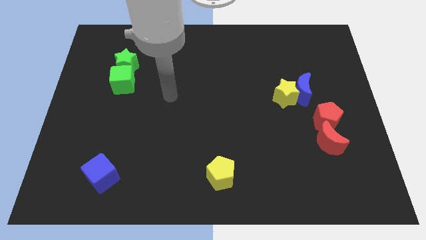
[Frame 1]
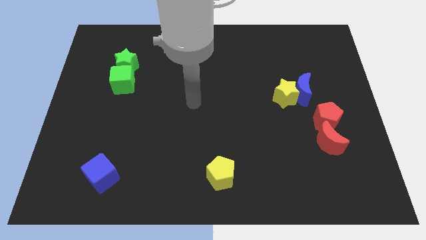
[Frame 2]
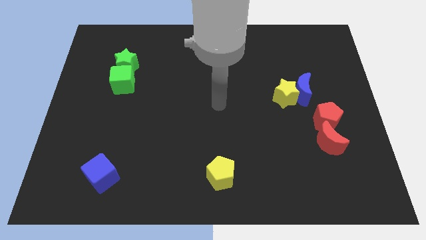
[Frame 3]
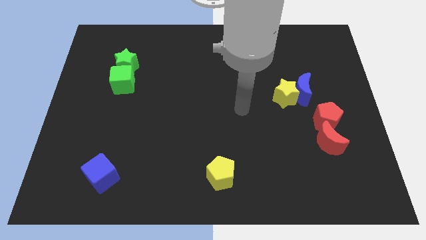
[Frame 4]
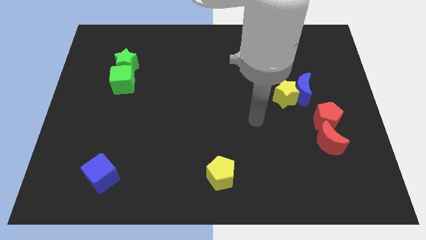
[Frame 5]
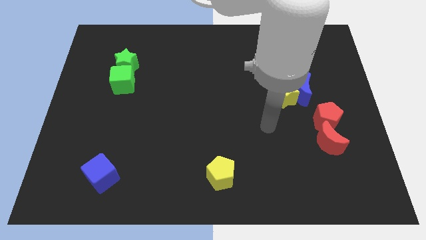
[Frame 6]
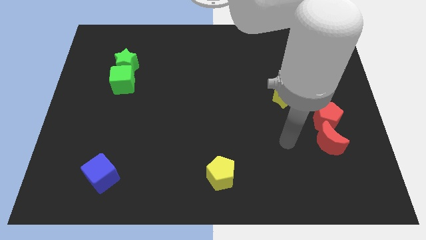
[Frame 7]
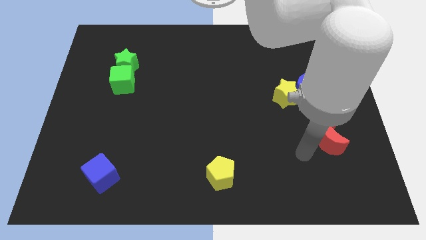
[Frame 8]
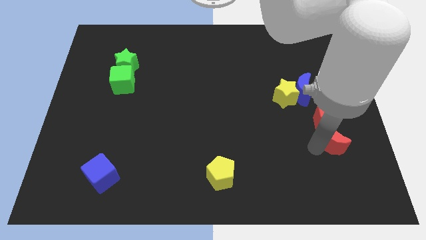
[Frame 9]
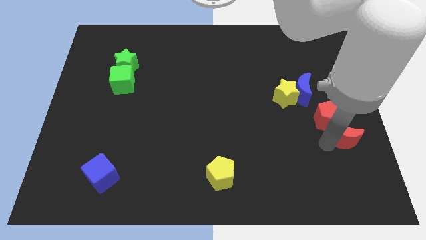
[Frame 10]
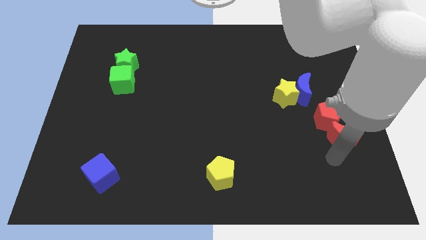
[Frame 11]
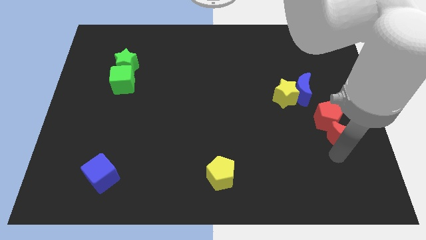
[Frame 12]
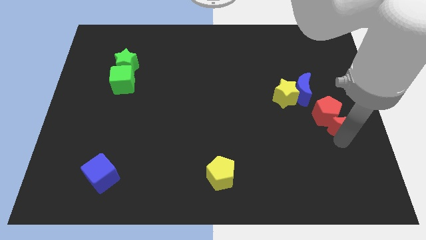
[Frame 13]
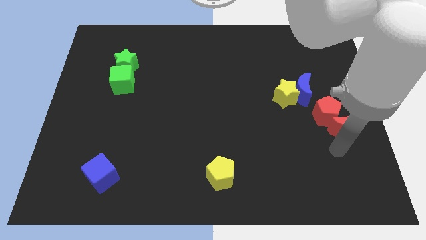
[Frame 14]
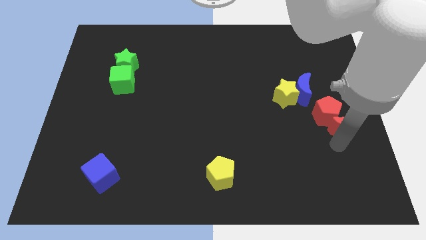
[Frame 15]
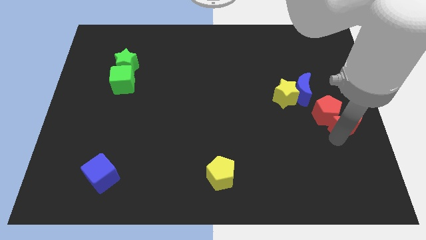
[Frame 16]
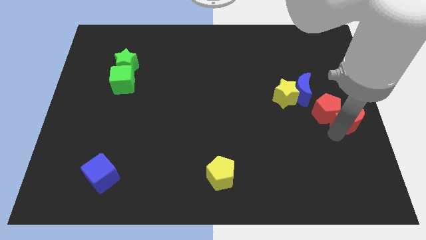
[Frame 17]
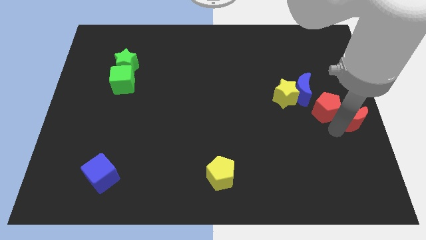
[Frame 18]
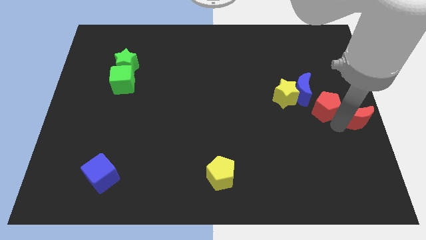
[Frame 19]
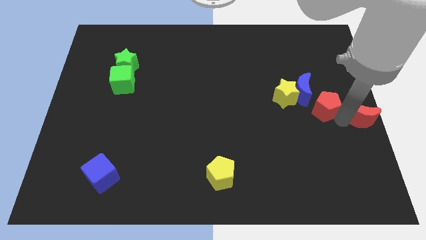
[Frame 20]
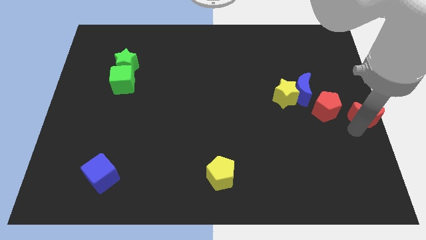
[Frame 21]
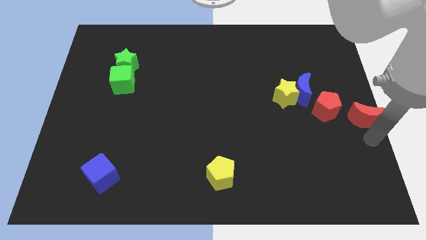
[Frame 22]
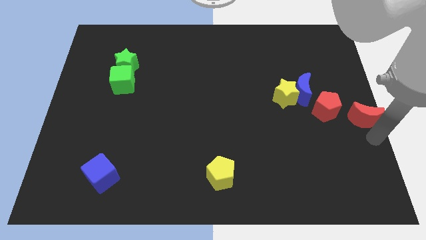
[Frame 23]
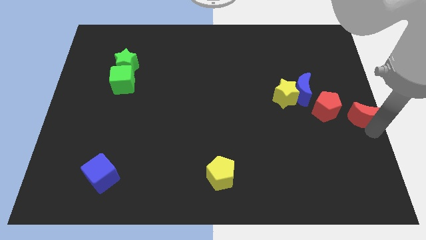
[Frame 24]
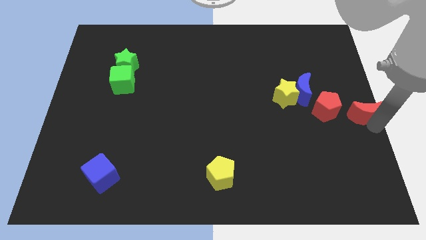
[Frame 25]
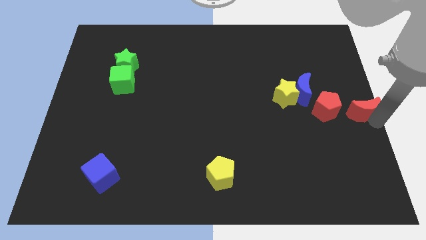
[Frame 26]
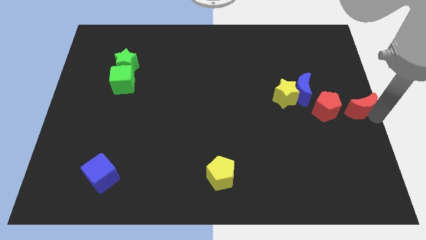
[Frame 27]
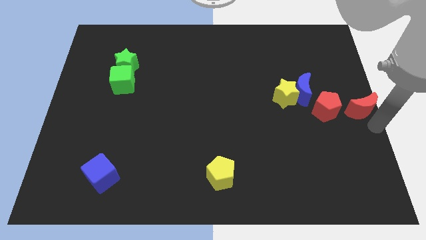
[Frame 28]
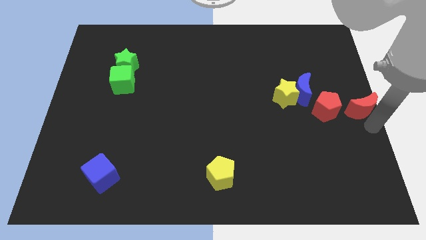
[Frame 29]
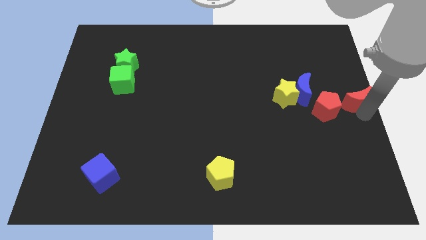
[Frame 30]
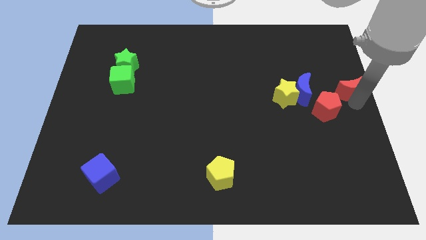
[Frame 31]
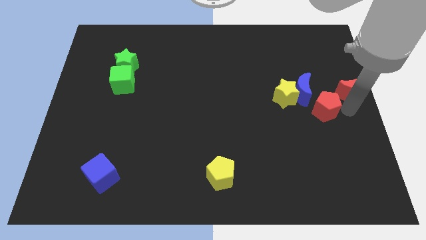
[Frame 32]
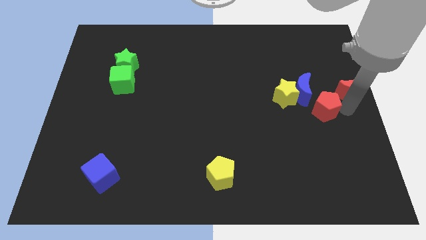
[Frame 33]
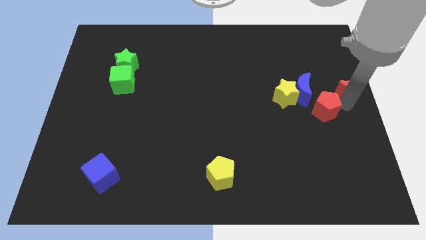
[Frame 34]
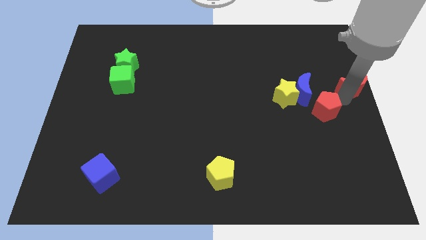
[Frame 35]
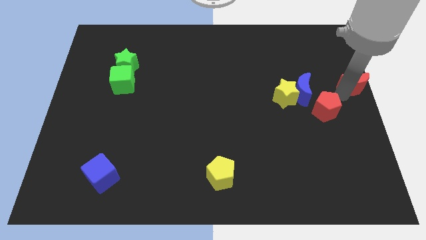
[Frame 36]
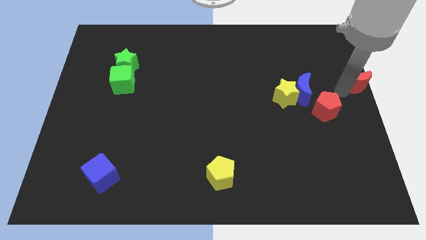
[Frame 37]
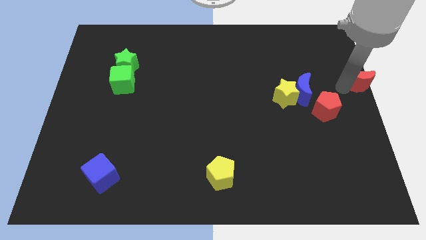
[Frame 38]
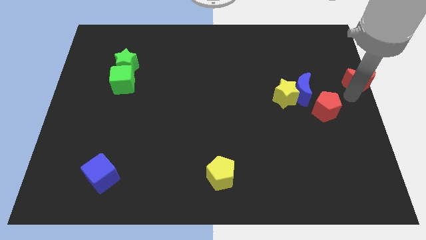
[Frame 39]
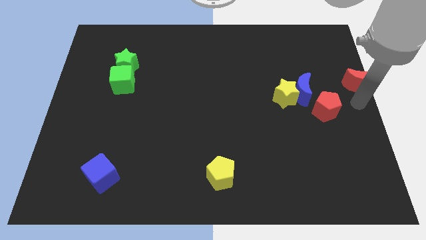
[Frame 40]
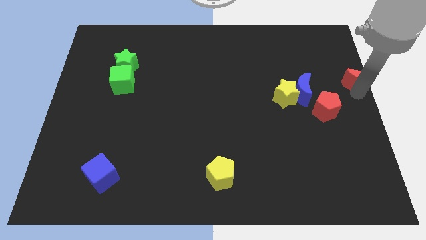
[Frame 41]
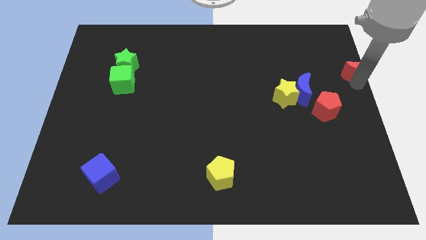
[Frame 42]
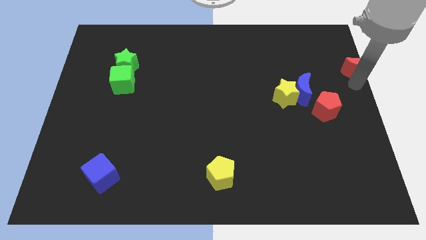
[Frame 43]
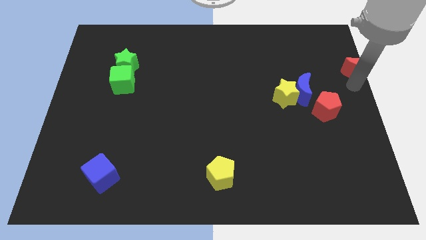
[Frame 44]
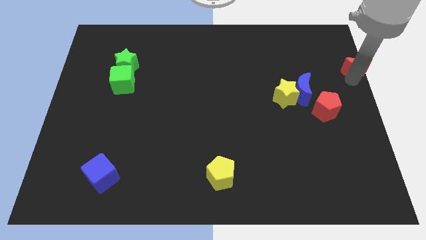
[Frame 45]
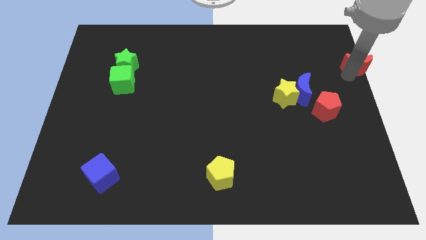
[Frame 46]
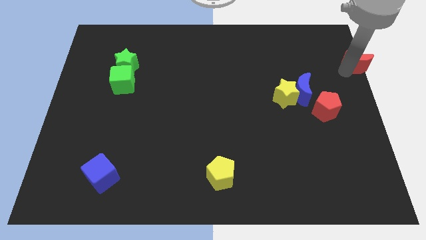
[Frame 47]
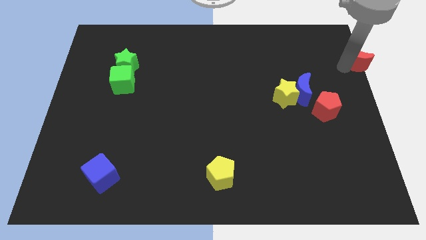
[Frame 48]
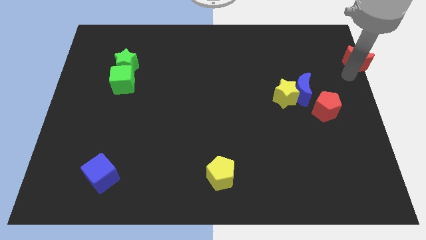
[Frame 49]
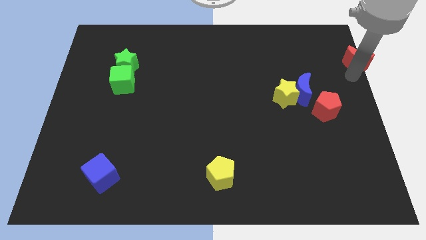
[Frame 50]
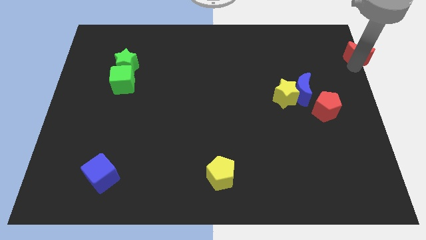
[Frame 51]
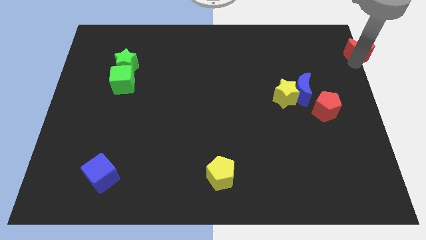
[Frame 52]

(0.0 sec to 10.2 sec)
push the red moon to the top right

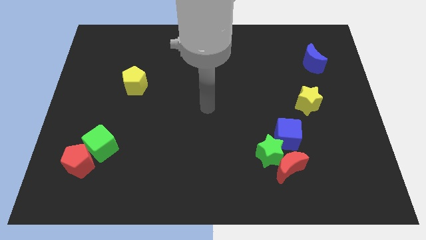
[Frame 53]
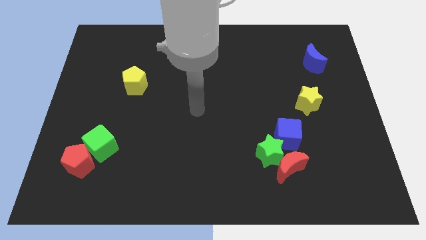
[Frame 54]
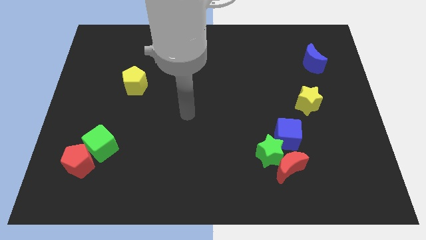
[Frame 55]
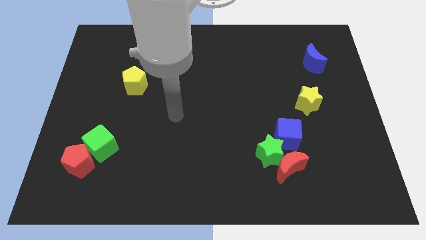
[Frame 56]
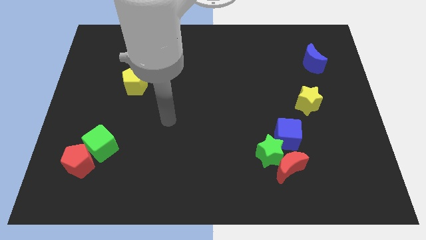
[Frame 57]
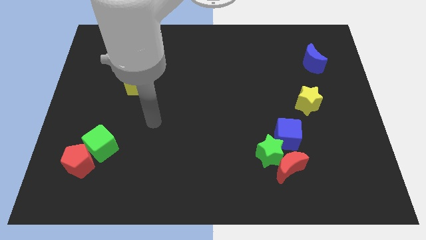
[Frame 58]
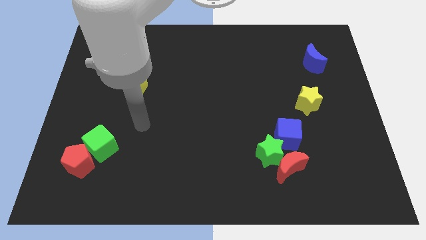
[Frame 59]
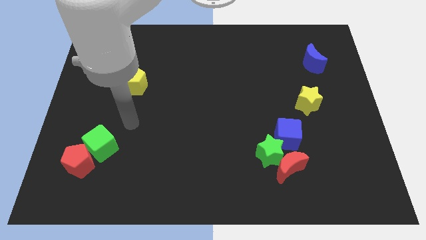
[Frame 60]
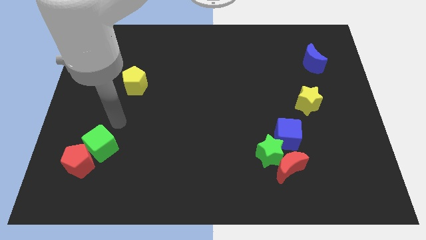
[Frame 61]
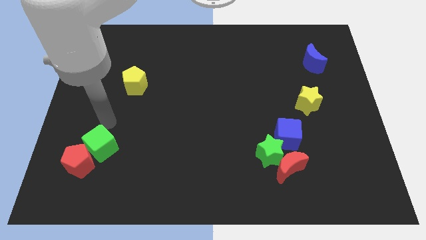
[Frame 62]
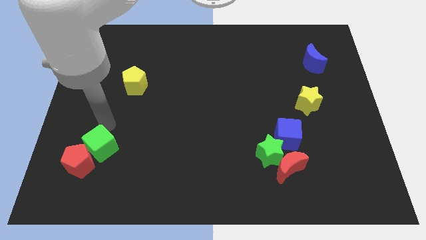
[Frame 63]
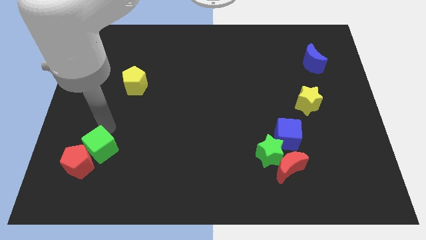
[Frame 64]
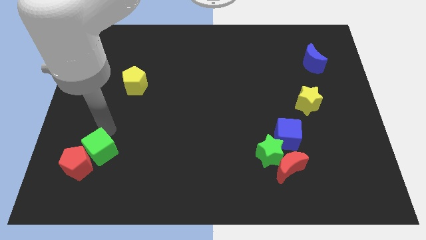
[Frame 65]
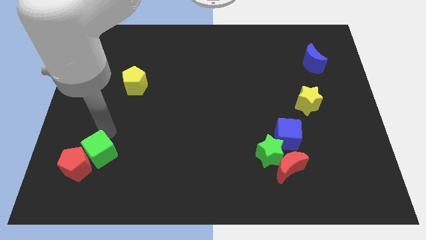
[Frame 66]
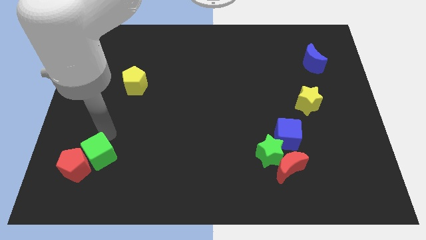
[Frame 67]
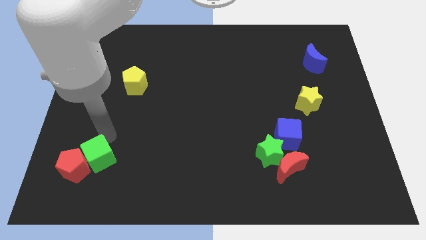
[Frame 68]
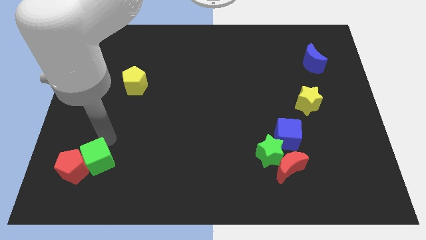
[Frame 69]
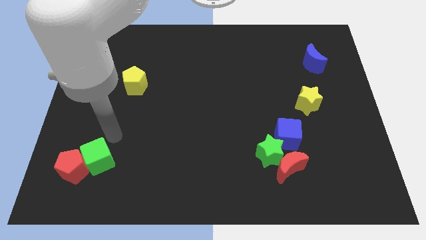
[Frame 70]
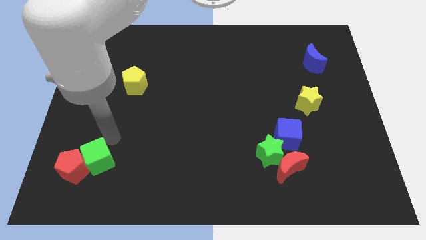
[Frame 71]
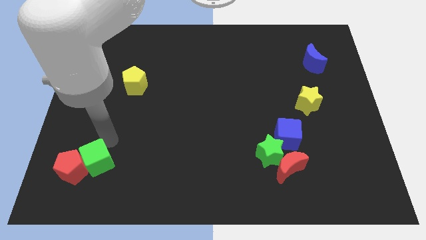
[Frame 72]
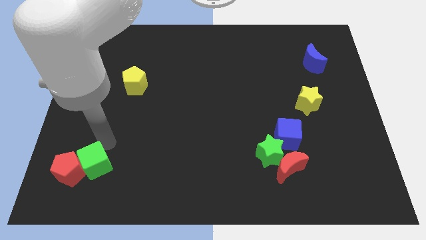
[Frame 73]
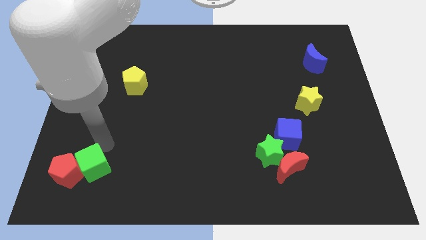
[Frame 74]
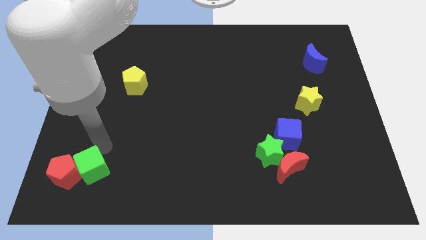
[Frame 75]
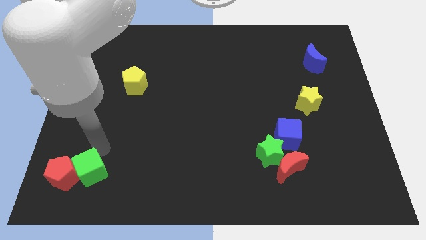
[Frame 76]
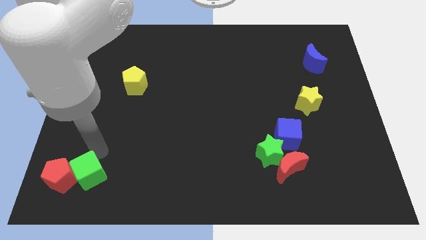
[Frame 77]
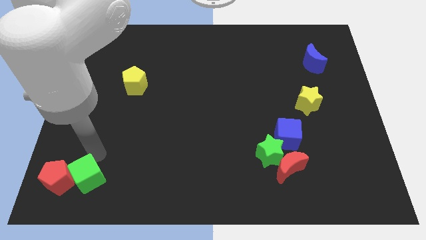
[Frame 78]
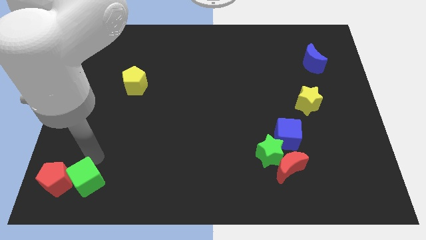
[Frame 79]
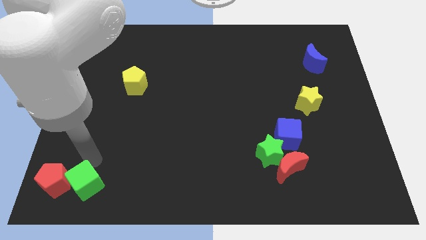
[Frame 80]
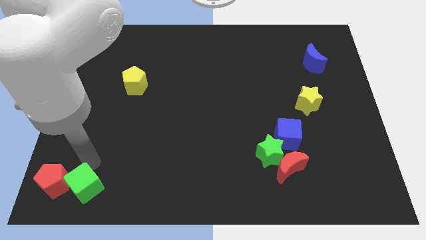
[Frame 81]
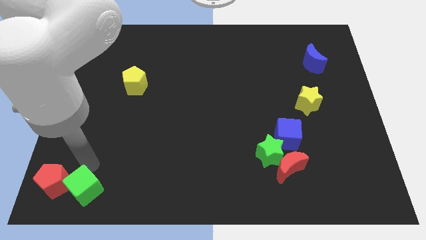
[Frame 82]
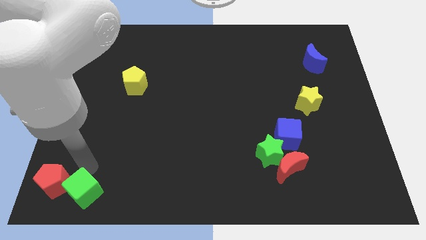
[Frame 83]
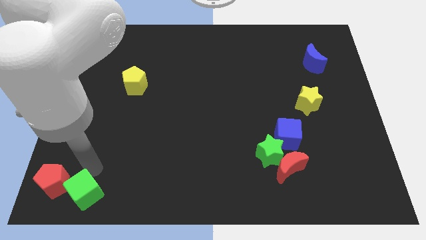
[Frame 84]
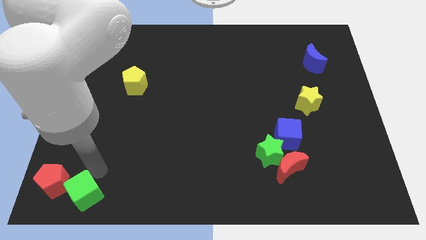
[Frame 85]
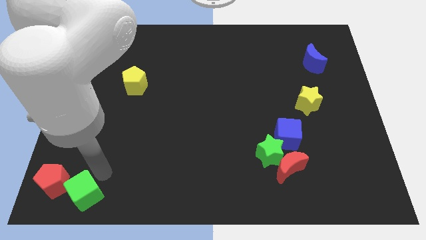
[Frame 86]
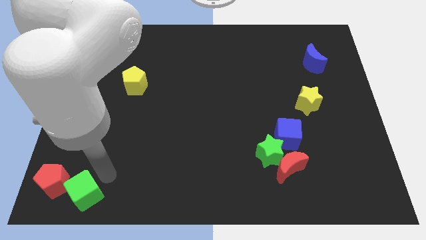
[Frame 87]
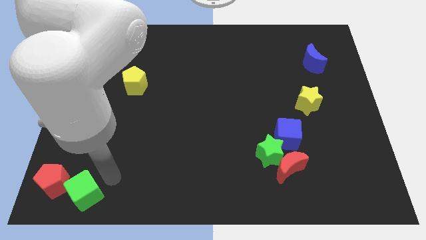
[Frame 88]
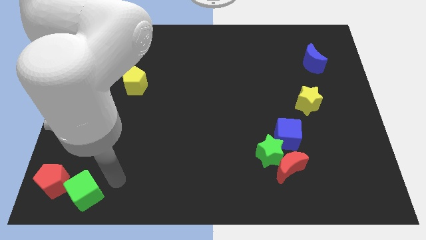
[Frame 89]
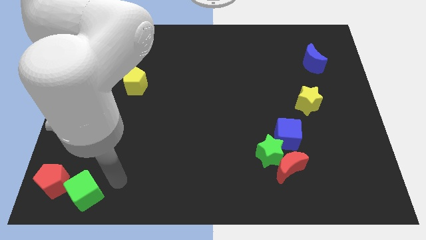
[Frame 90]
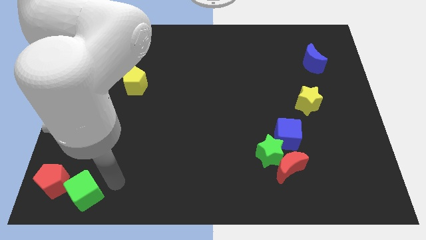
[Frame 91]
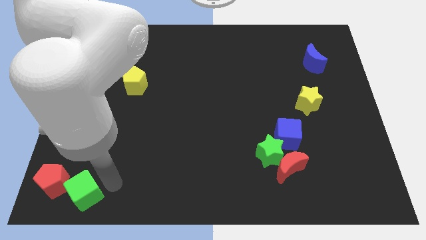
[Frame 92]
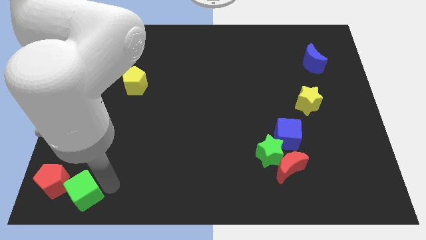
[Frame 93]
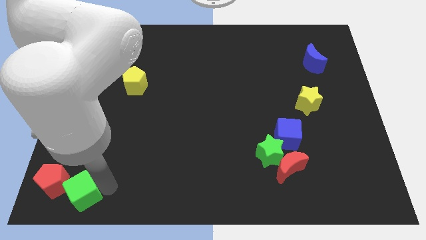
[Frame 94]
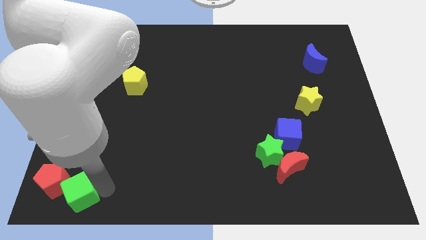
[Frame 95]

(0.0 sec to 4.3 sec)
put the green cube to the bottom left corner
